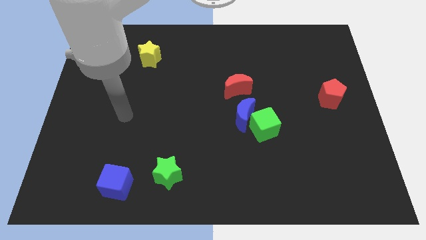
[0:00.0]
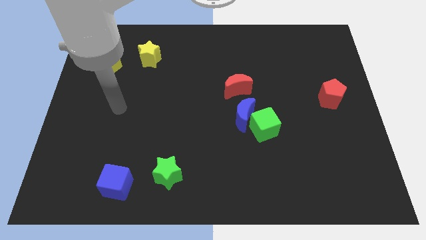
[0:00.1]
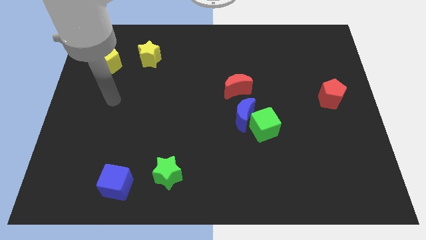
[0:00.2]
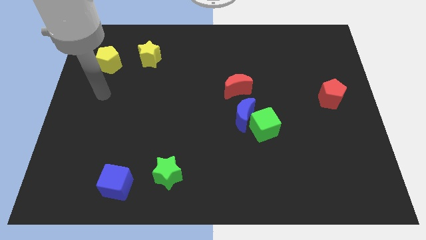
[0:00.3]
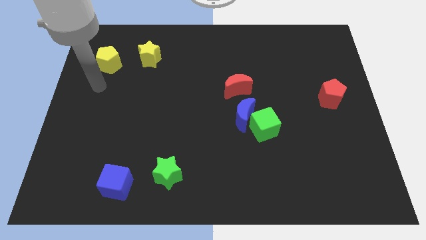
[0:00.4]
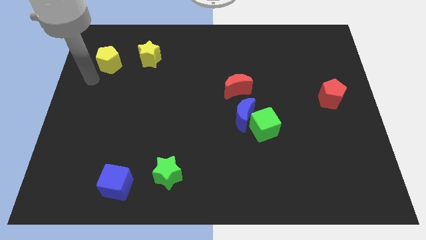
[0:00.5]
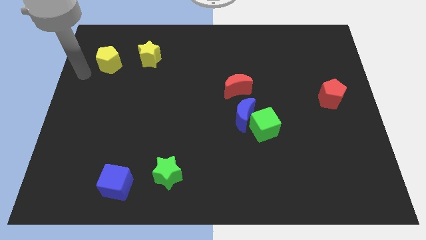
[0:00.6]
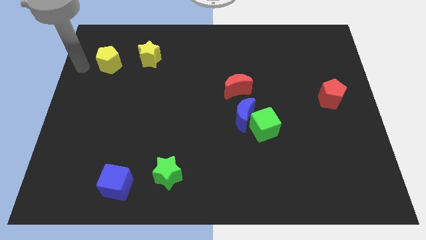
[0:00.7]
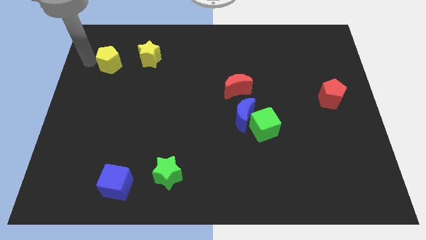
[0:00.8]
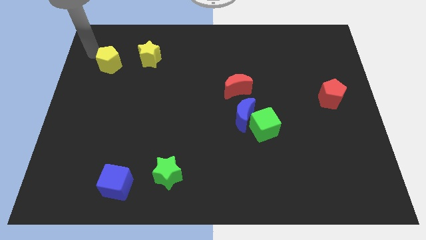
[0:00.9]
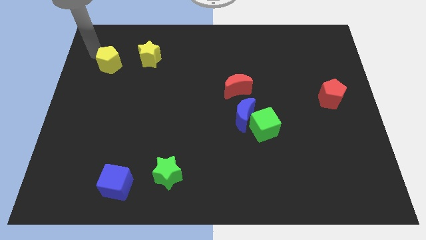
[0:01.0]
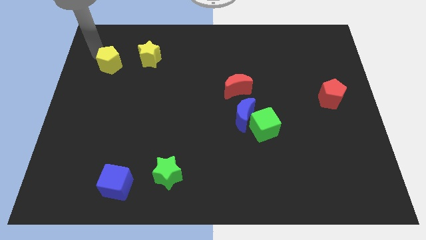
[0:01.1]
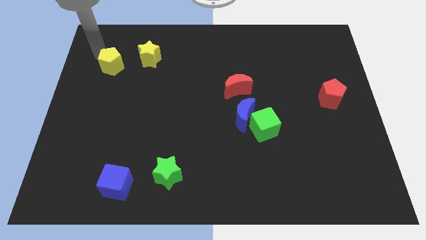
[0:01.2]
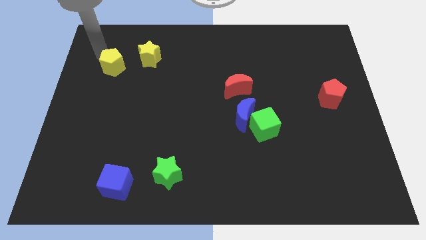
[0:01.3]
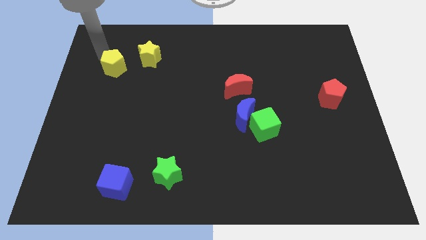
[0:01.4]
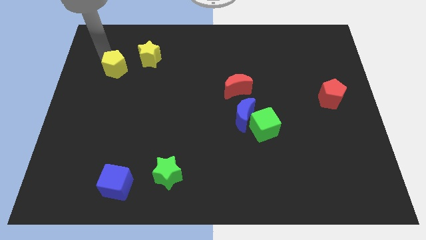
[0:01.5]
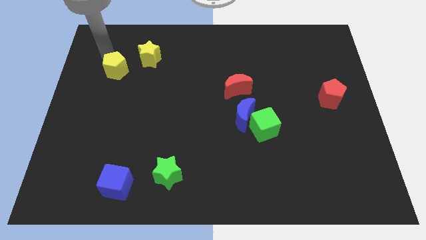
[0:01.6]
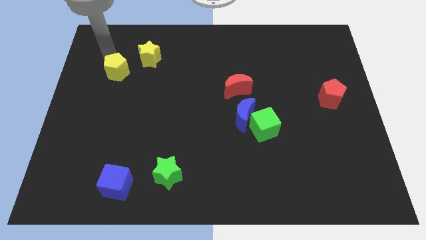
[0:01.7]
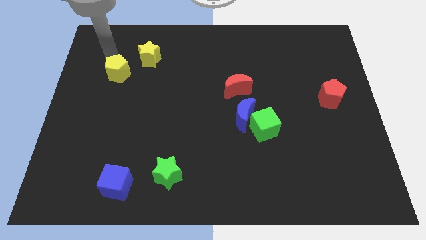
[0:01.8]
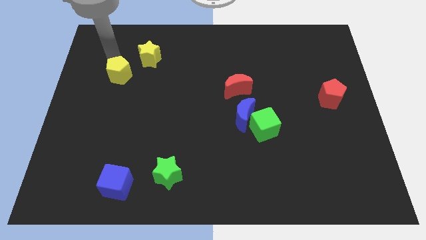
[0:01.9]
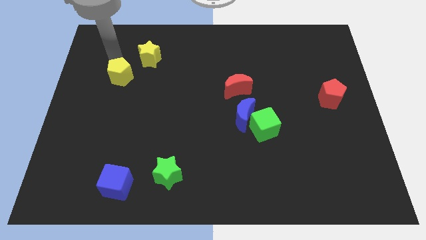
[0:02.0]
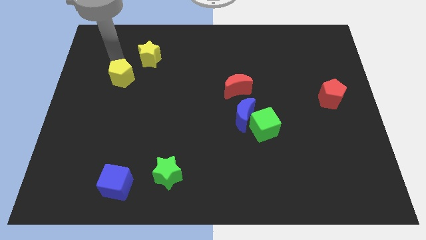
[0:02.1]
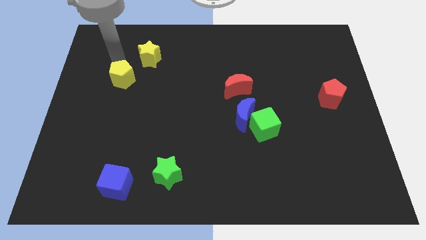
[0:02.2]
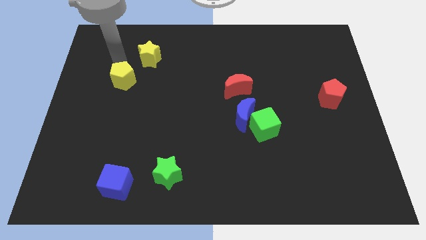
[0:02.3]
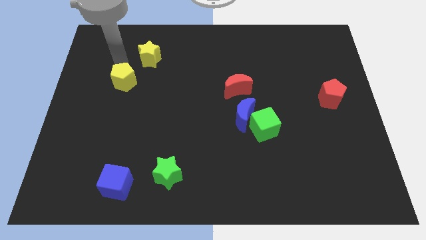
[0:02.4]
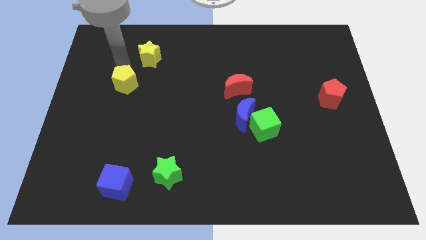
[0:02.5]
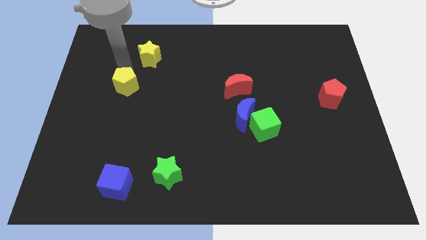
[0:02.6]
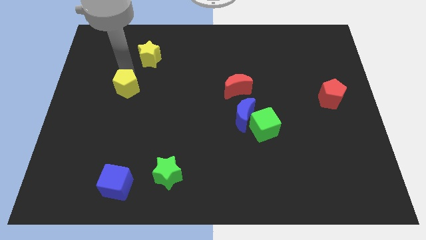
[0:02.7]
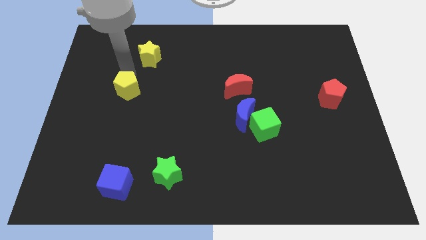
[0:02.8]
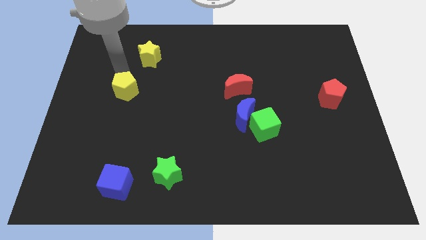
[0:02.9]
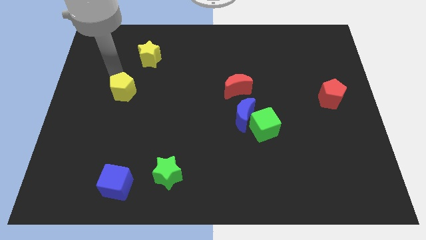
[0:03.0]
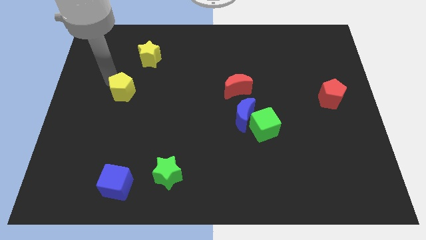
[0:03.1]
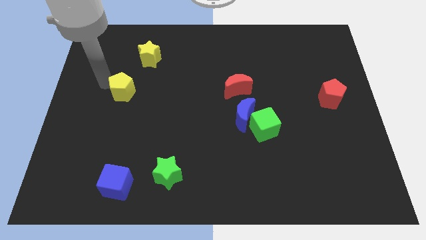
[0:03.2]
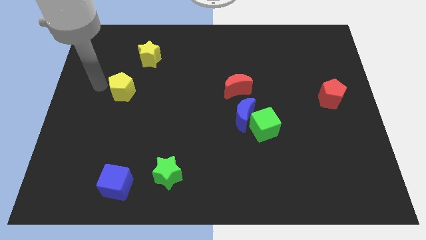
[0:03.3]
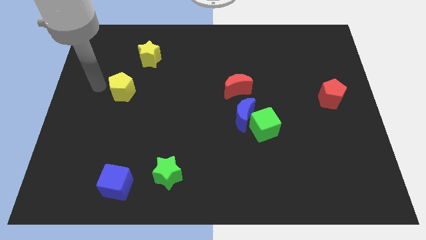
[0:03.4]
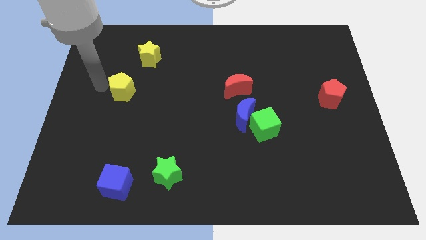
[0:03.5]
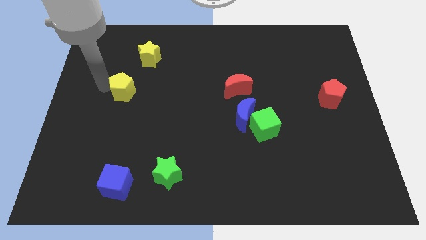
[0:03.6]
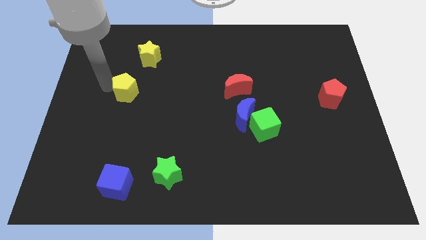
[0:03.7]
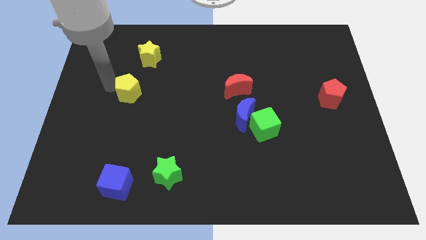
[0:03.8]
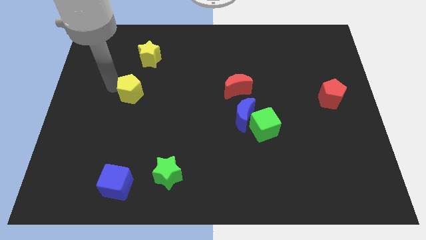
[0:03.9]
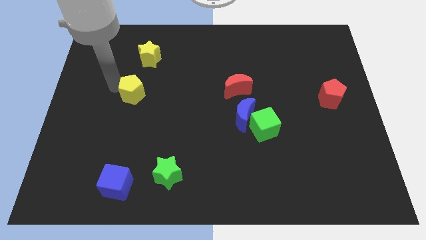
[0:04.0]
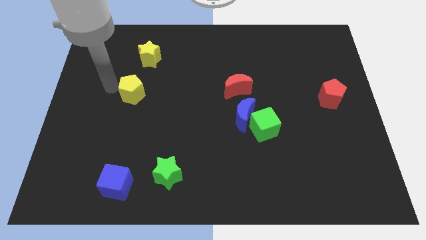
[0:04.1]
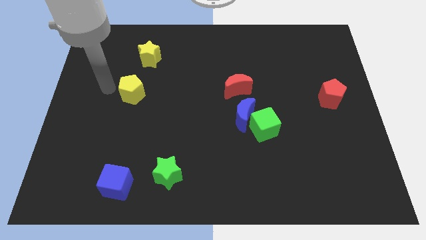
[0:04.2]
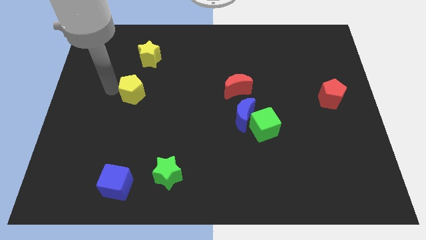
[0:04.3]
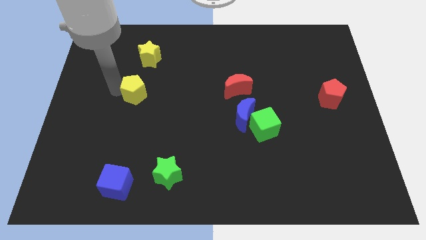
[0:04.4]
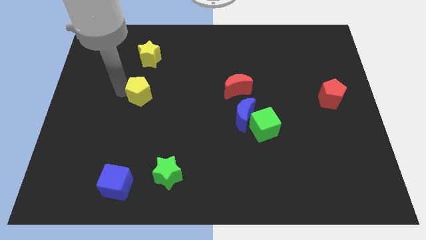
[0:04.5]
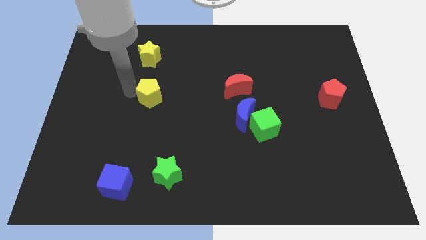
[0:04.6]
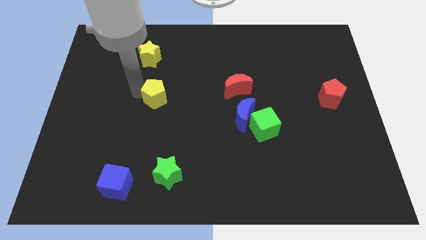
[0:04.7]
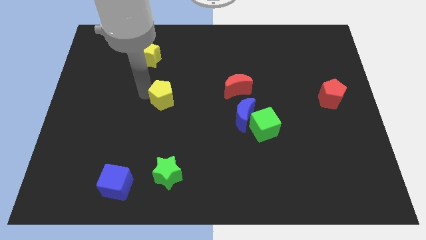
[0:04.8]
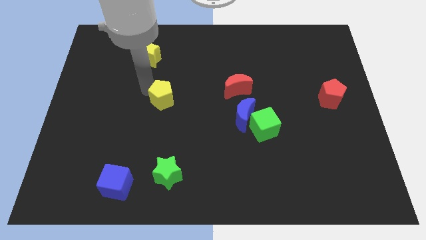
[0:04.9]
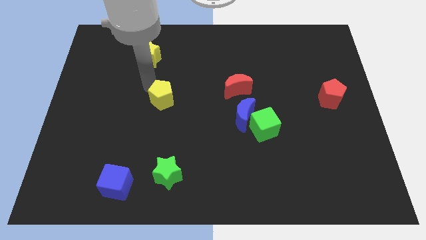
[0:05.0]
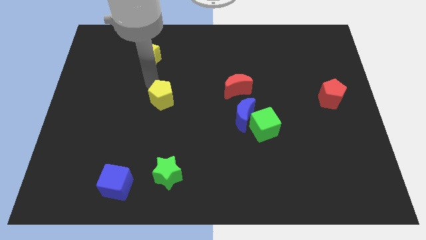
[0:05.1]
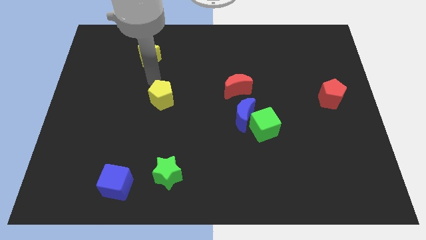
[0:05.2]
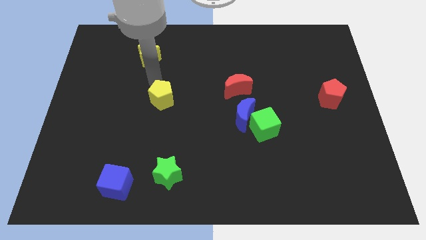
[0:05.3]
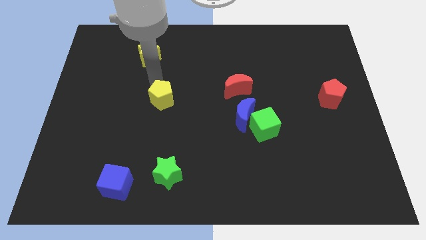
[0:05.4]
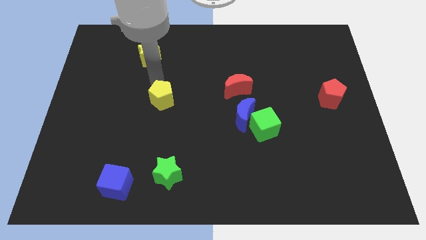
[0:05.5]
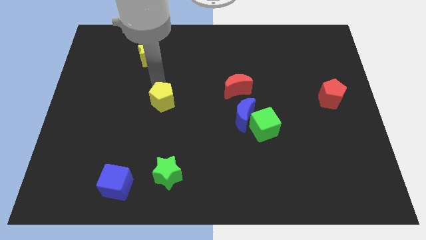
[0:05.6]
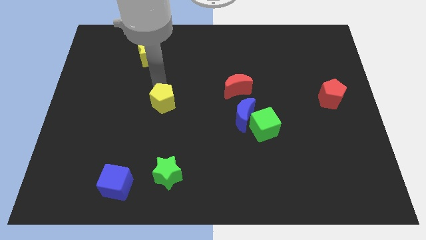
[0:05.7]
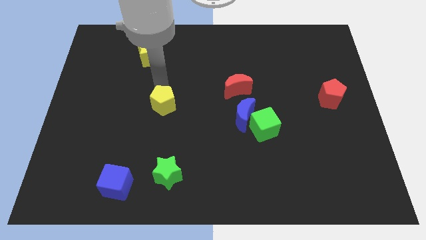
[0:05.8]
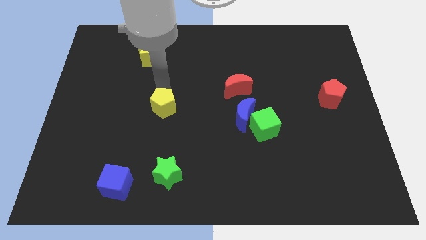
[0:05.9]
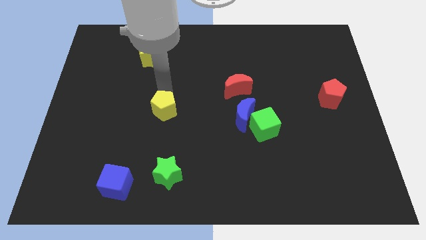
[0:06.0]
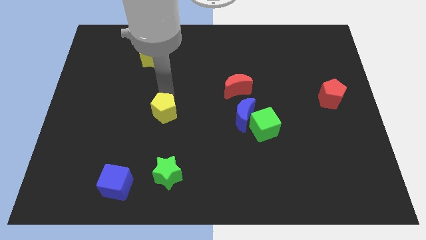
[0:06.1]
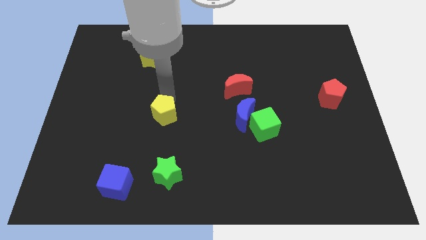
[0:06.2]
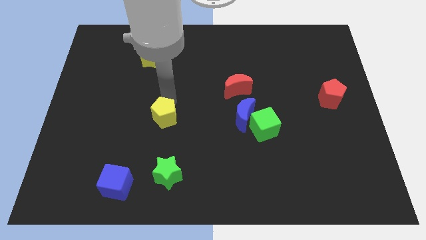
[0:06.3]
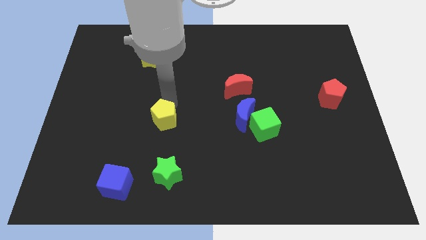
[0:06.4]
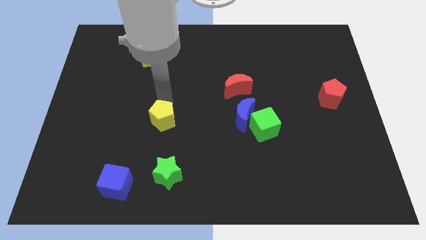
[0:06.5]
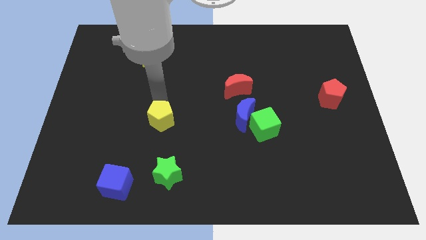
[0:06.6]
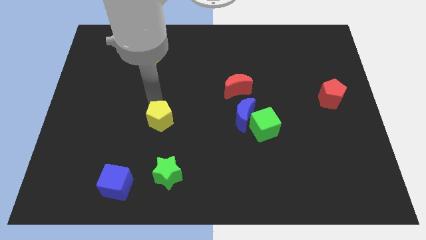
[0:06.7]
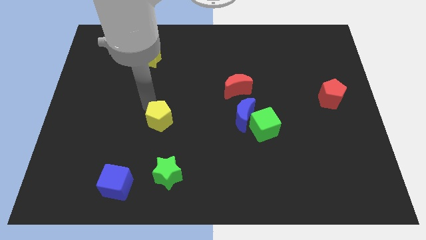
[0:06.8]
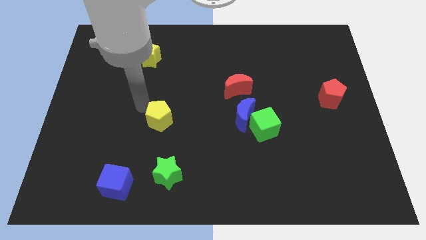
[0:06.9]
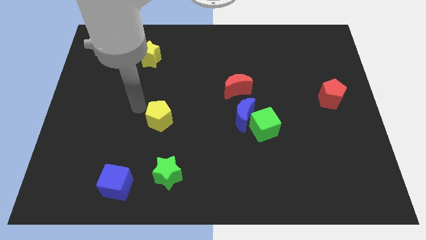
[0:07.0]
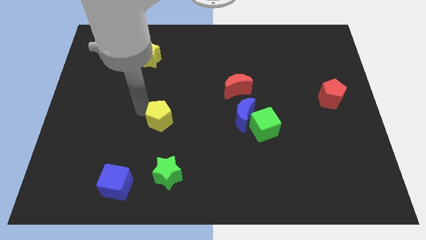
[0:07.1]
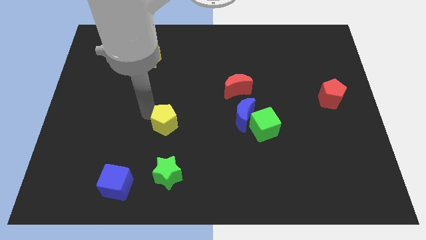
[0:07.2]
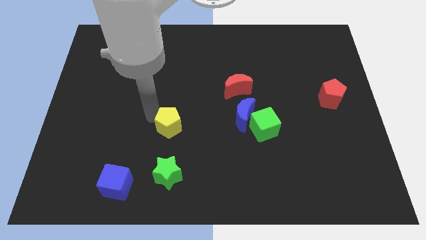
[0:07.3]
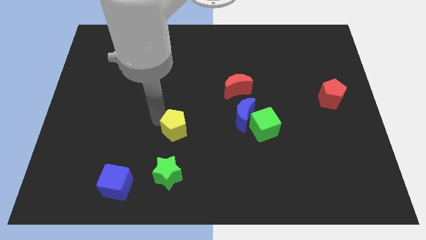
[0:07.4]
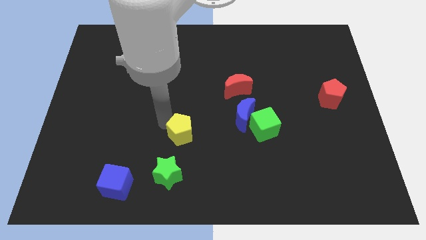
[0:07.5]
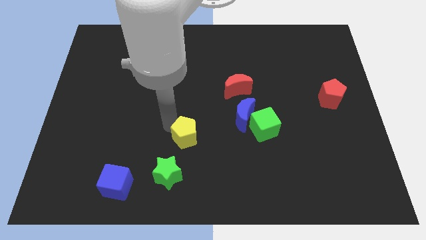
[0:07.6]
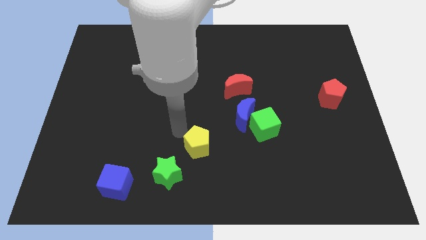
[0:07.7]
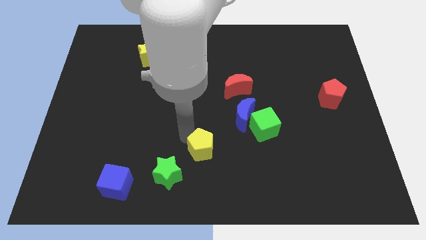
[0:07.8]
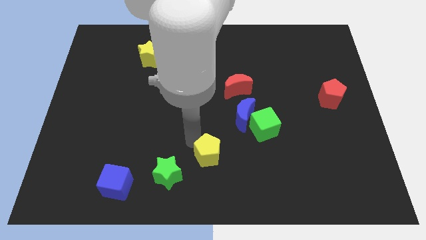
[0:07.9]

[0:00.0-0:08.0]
push the yellow pentagon just right of the green star

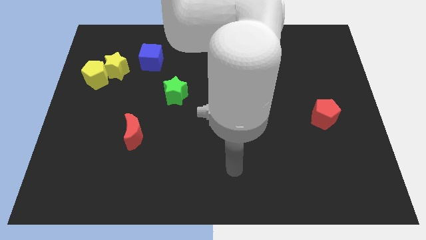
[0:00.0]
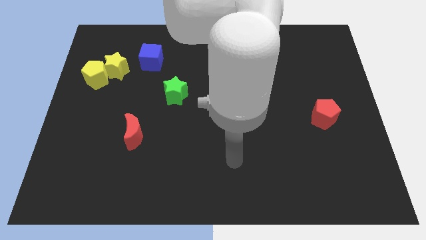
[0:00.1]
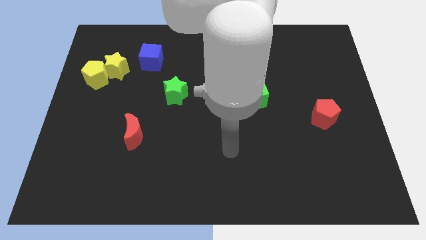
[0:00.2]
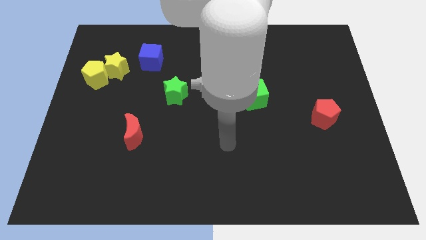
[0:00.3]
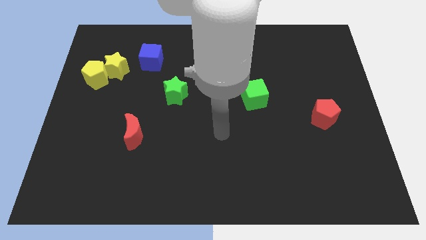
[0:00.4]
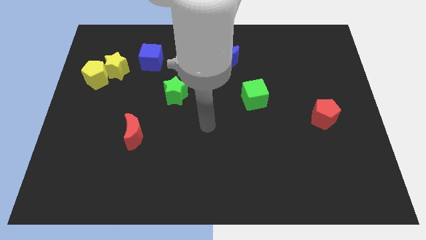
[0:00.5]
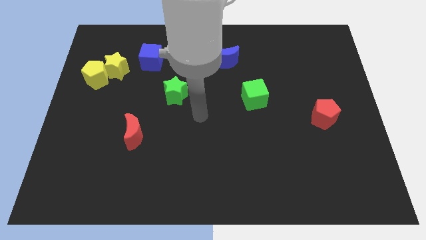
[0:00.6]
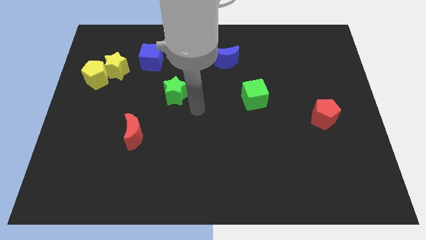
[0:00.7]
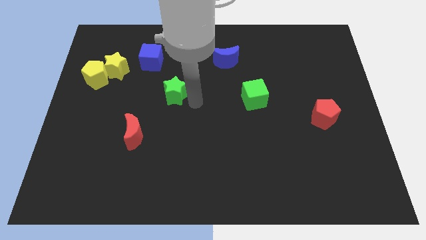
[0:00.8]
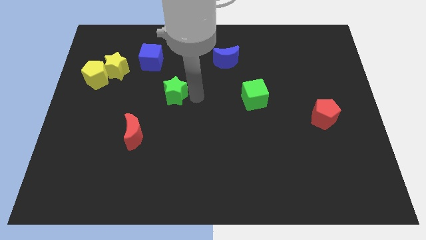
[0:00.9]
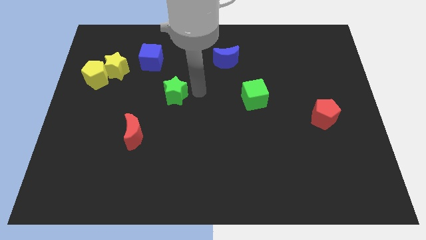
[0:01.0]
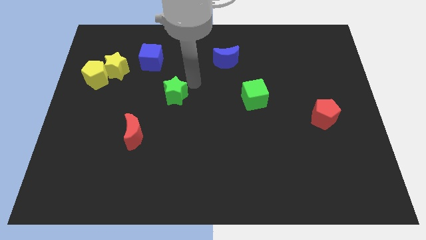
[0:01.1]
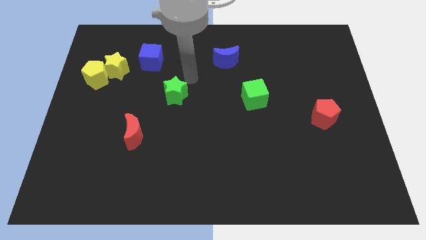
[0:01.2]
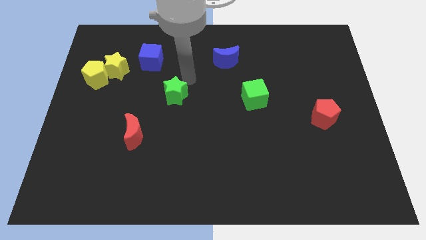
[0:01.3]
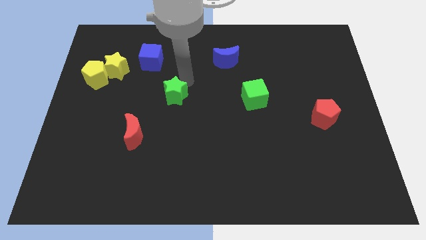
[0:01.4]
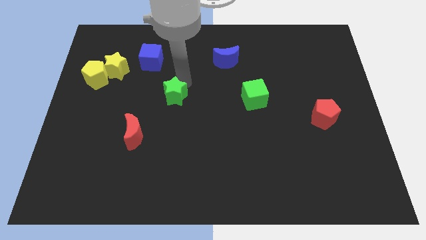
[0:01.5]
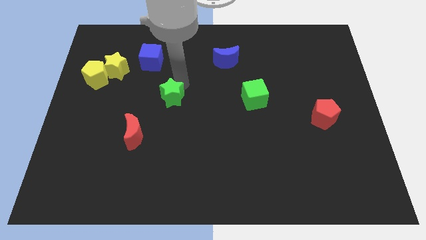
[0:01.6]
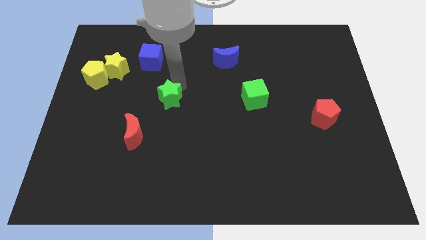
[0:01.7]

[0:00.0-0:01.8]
slide the green star to the top right side of the red moon
